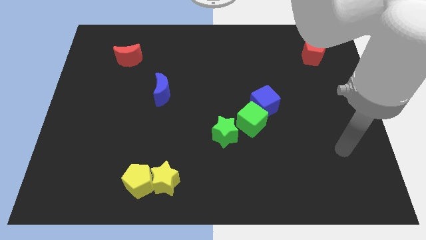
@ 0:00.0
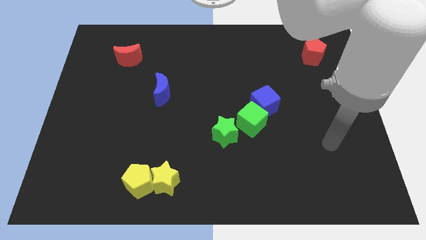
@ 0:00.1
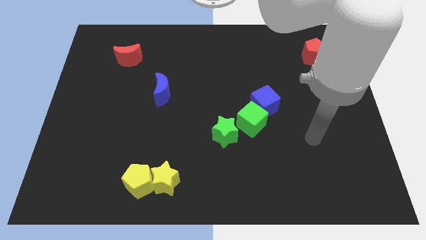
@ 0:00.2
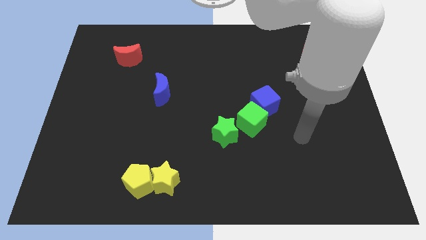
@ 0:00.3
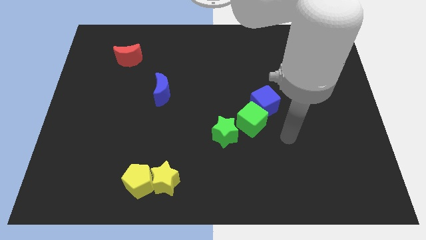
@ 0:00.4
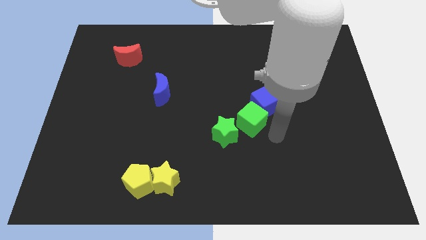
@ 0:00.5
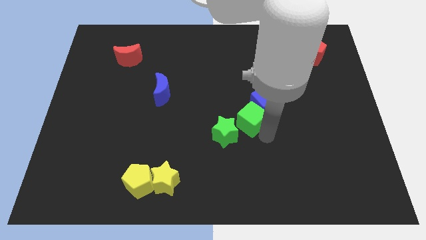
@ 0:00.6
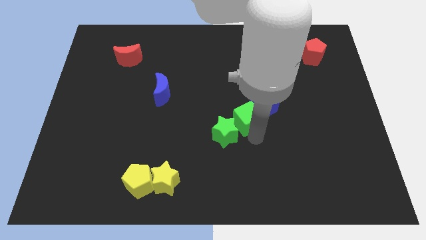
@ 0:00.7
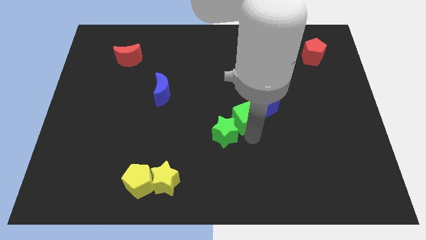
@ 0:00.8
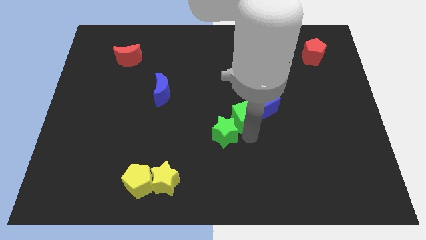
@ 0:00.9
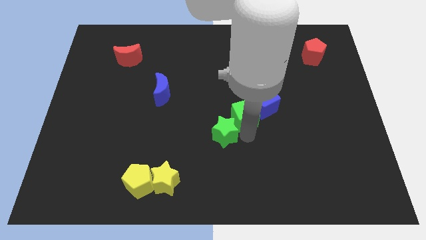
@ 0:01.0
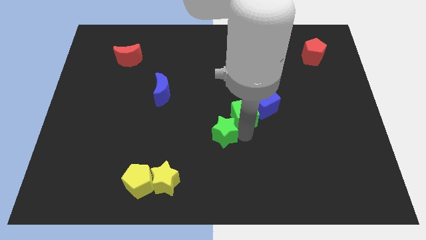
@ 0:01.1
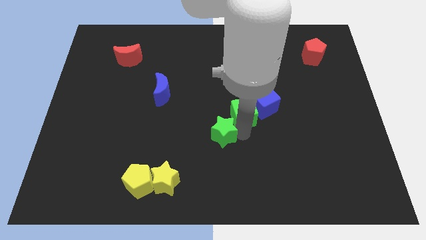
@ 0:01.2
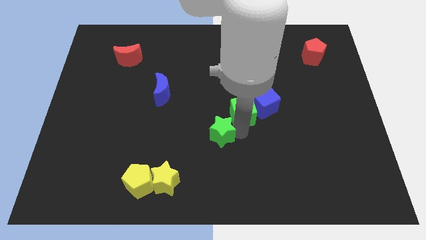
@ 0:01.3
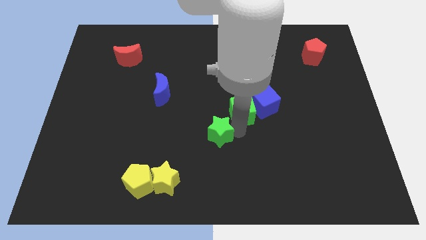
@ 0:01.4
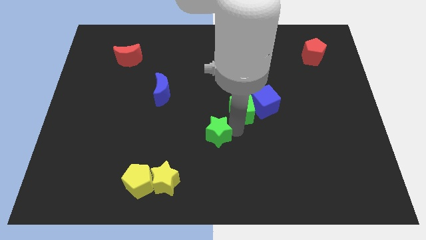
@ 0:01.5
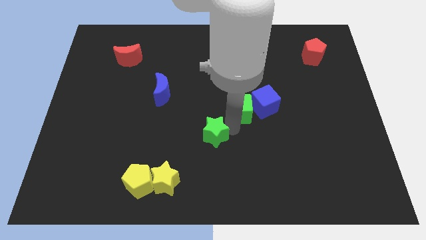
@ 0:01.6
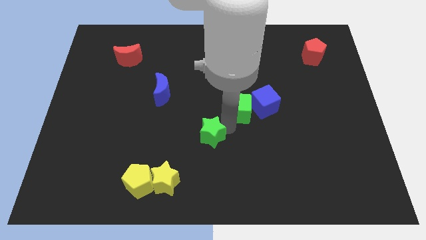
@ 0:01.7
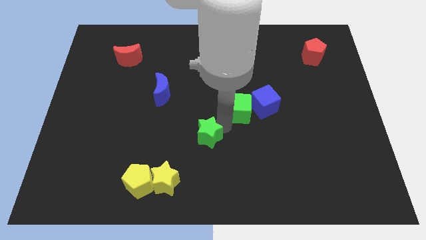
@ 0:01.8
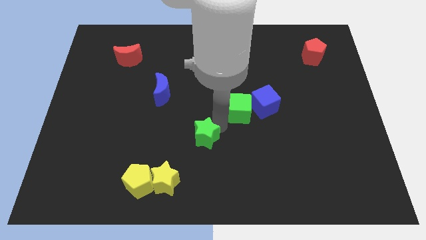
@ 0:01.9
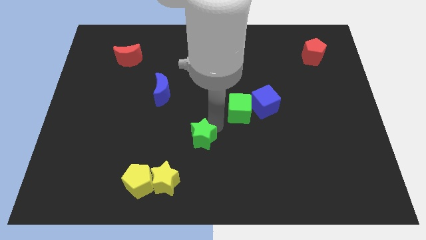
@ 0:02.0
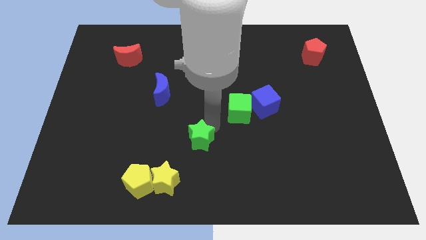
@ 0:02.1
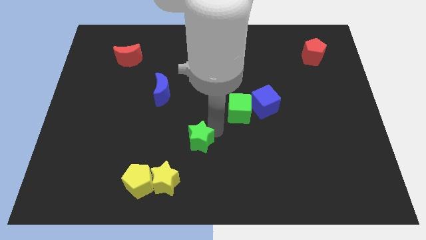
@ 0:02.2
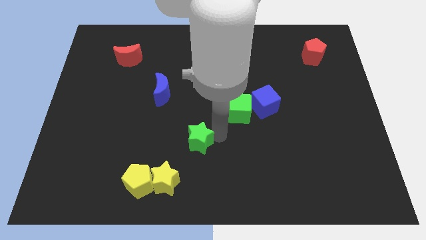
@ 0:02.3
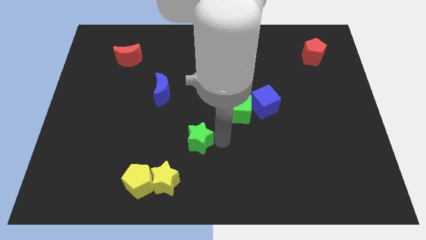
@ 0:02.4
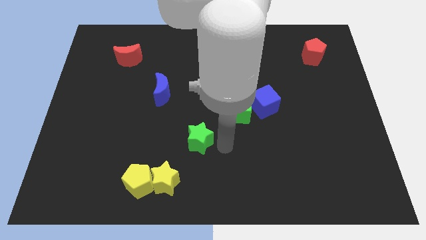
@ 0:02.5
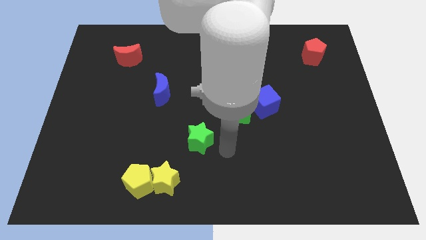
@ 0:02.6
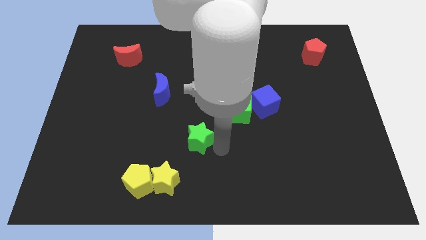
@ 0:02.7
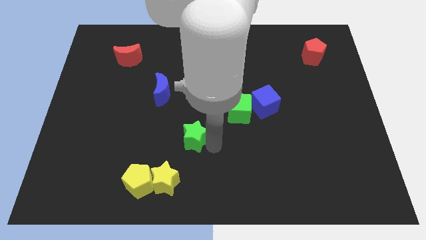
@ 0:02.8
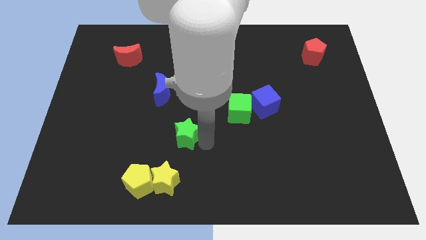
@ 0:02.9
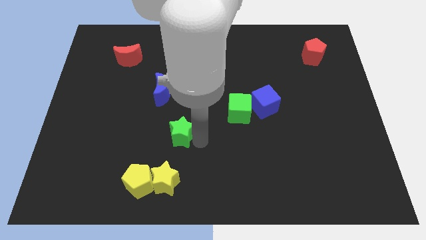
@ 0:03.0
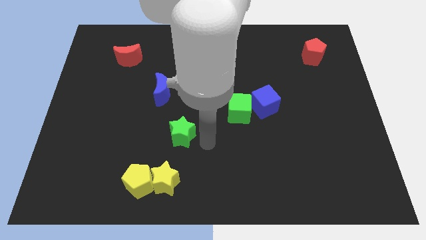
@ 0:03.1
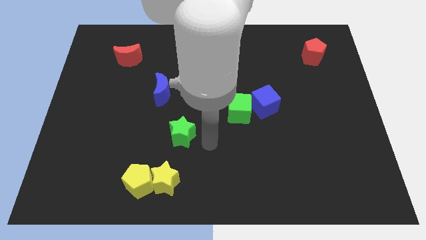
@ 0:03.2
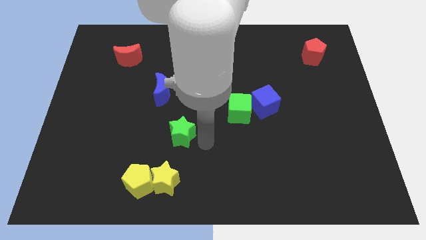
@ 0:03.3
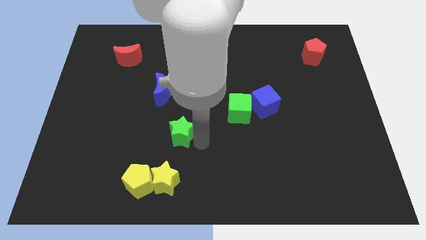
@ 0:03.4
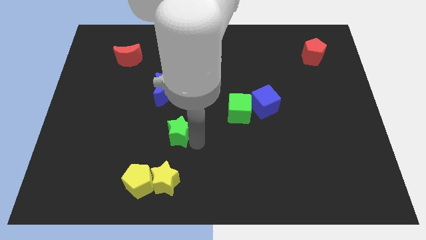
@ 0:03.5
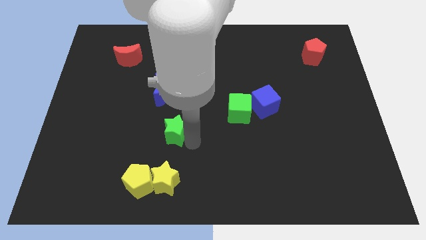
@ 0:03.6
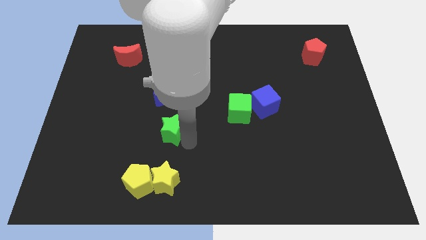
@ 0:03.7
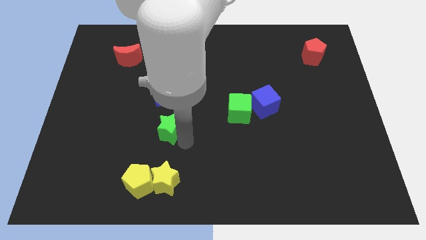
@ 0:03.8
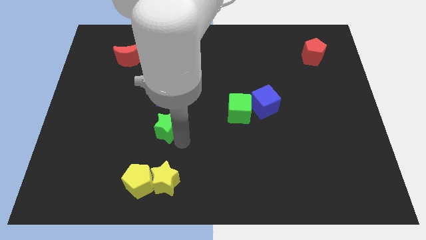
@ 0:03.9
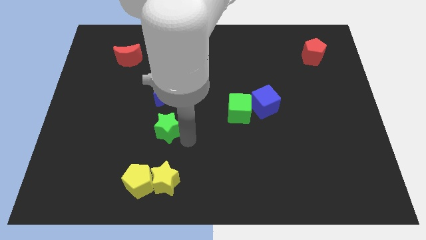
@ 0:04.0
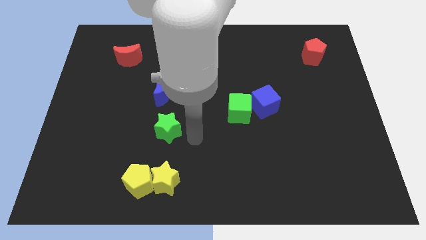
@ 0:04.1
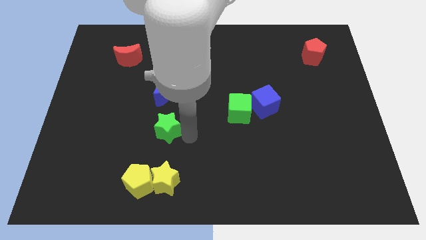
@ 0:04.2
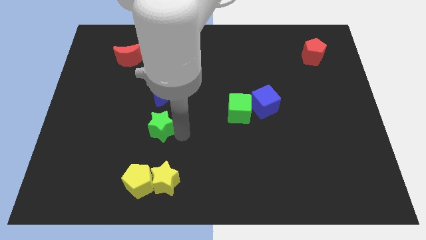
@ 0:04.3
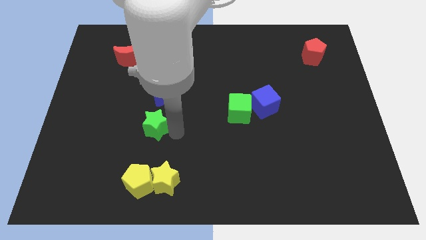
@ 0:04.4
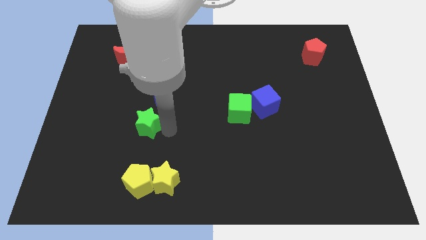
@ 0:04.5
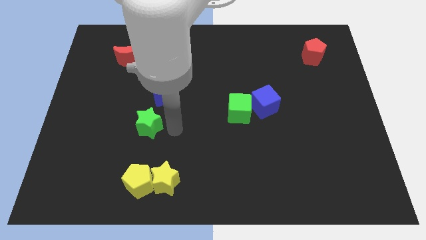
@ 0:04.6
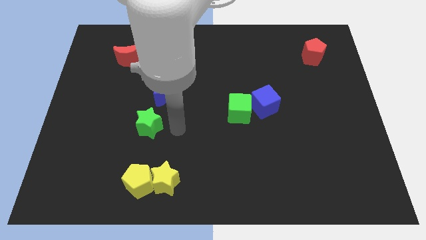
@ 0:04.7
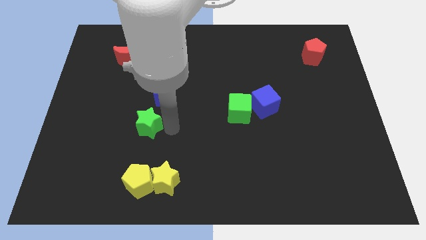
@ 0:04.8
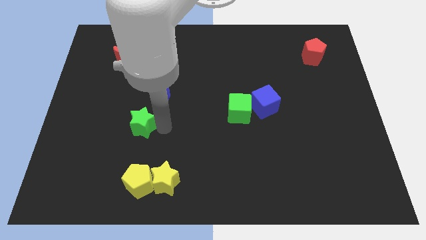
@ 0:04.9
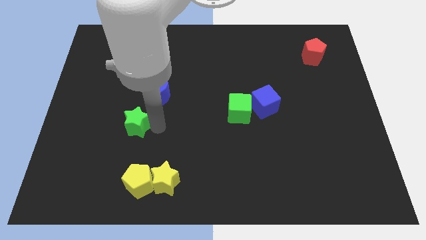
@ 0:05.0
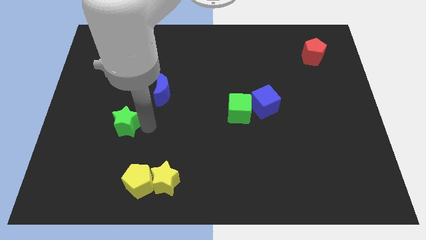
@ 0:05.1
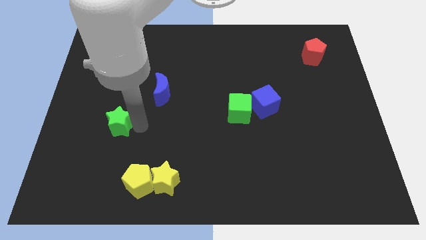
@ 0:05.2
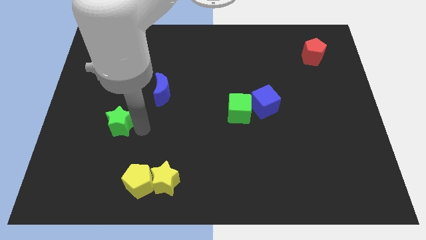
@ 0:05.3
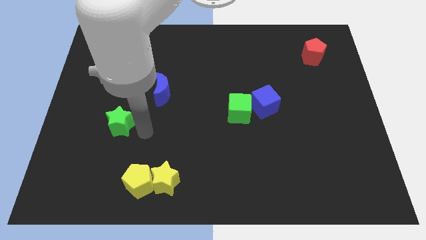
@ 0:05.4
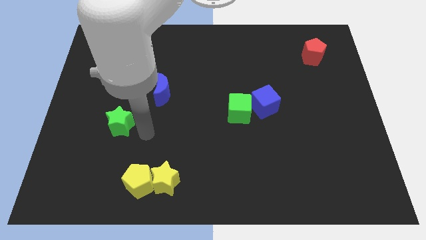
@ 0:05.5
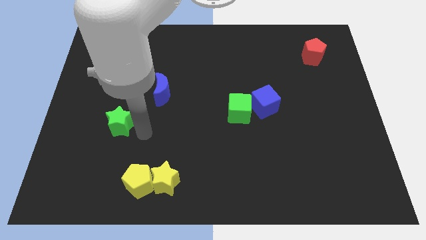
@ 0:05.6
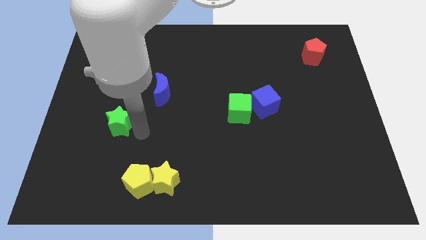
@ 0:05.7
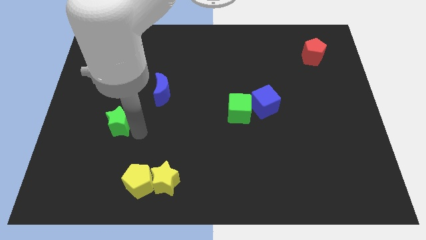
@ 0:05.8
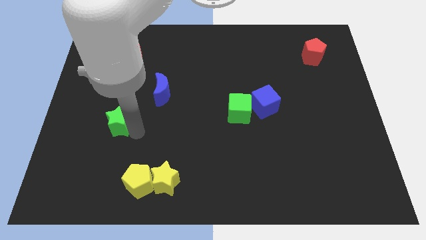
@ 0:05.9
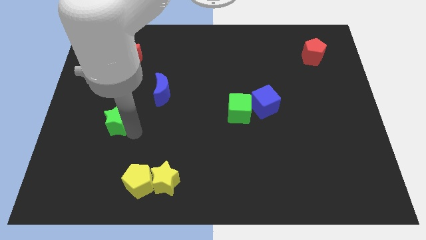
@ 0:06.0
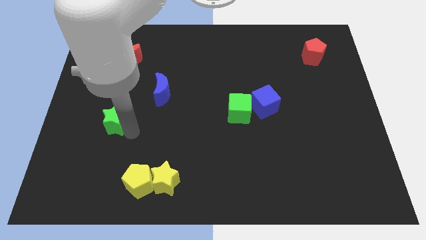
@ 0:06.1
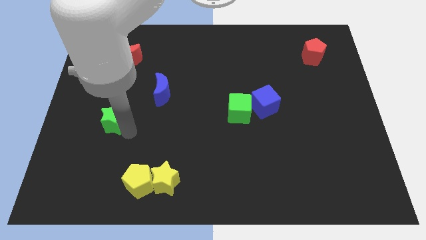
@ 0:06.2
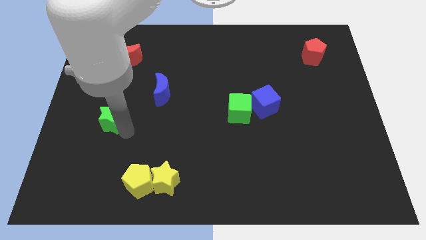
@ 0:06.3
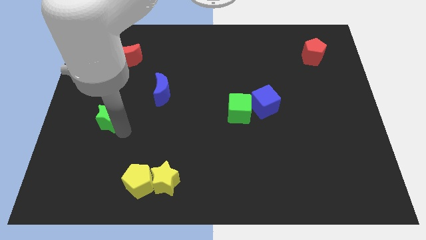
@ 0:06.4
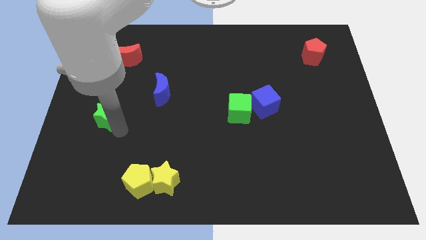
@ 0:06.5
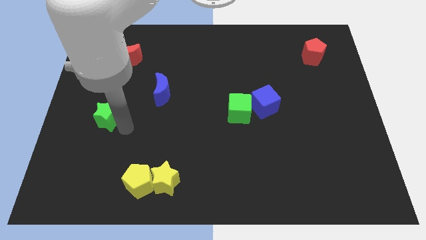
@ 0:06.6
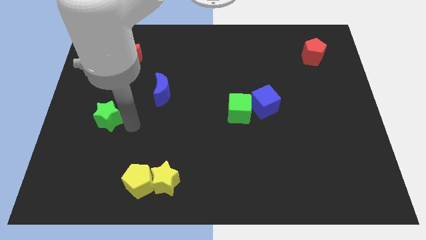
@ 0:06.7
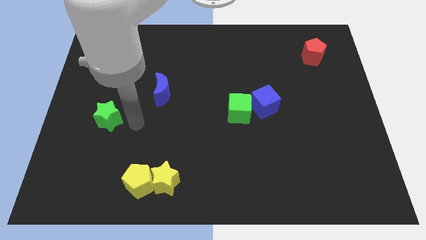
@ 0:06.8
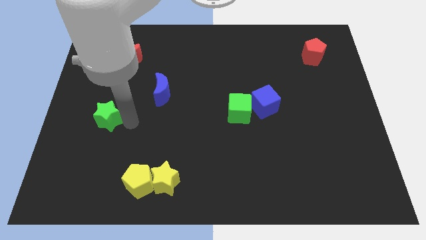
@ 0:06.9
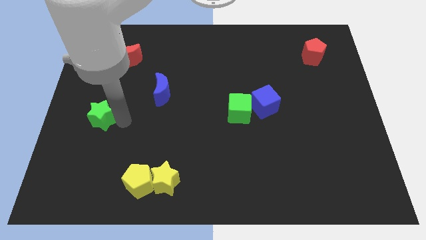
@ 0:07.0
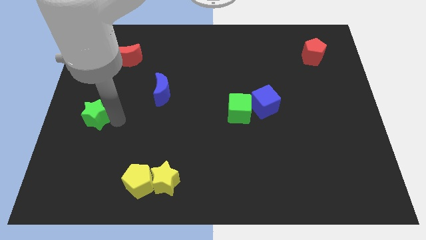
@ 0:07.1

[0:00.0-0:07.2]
push the green star to the center left
